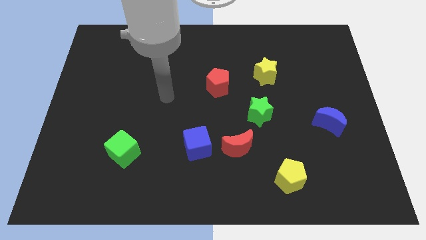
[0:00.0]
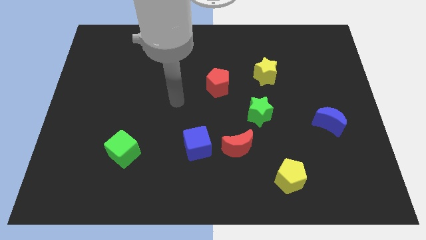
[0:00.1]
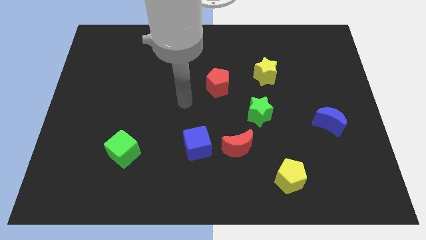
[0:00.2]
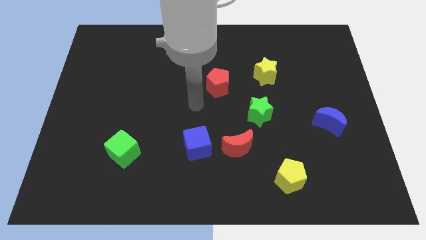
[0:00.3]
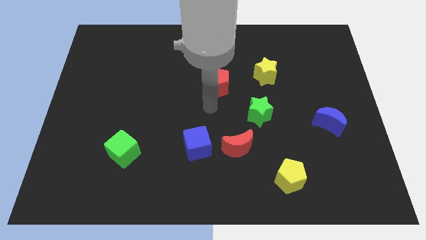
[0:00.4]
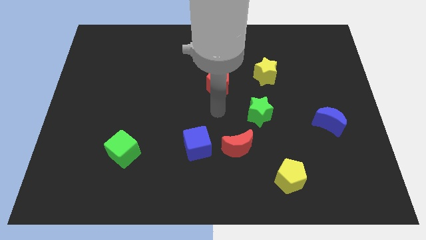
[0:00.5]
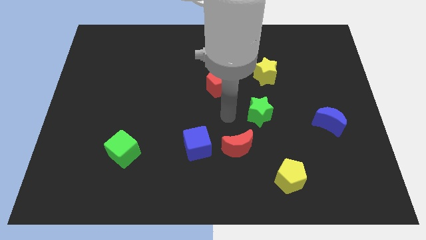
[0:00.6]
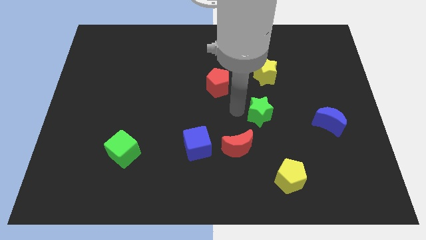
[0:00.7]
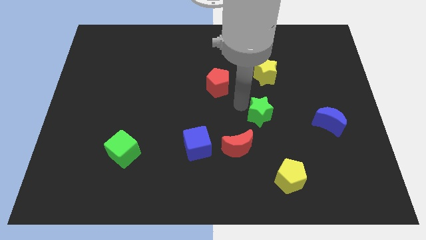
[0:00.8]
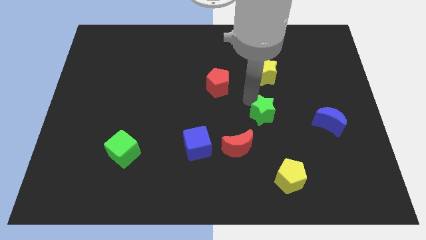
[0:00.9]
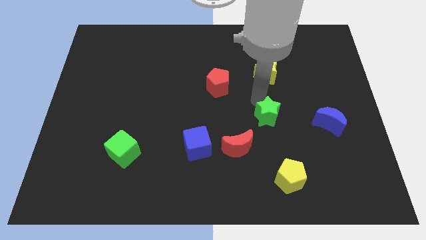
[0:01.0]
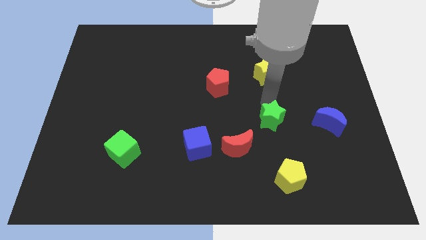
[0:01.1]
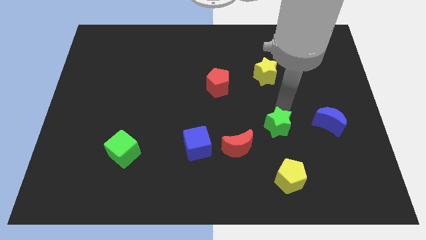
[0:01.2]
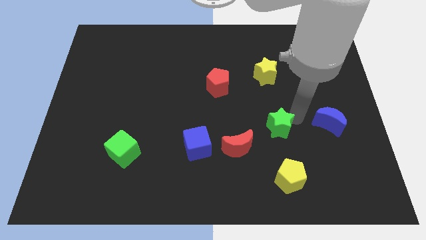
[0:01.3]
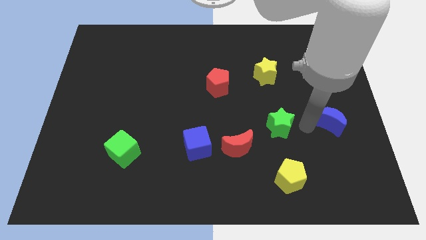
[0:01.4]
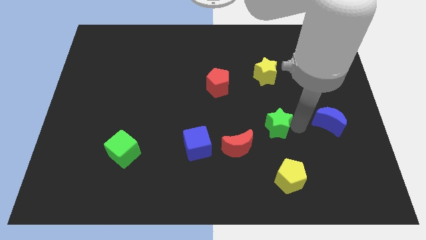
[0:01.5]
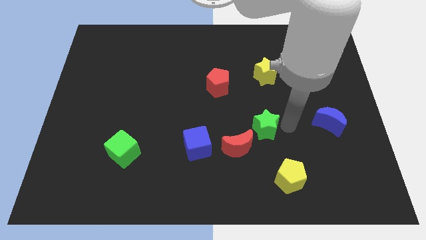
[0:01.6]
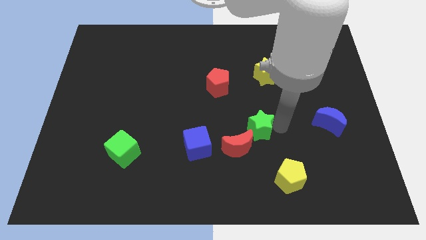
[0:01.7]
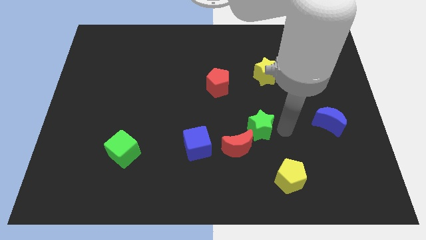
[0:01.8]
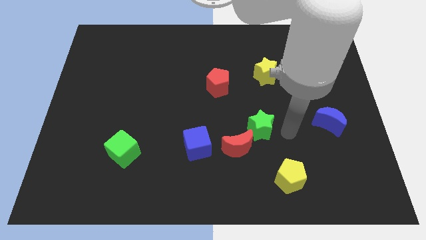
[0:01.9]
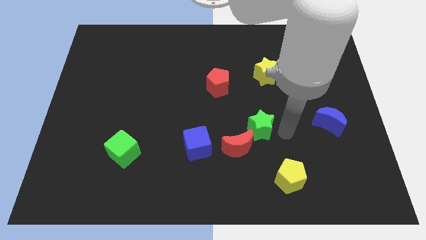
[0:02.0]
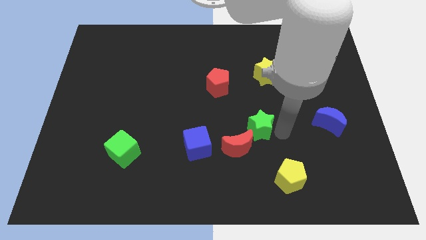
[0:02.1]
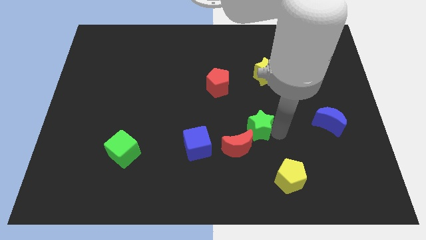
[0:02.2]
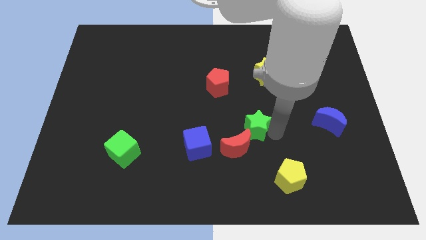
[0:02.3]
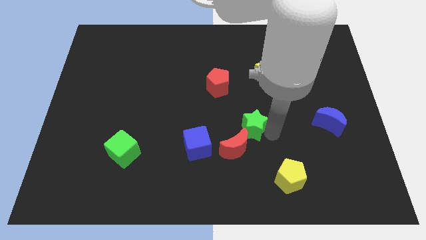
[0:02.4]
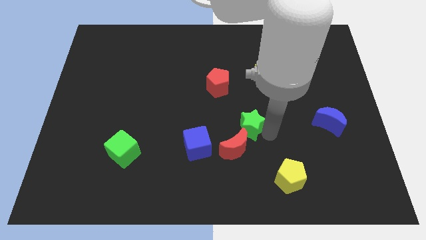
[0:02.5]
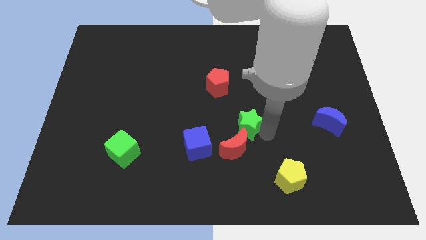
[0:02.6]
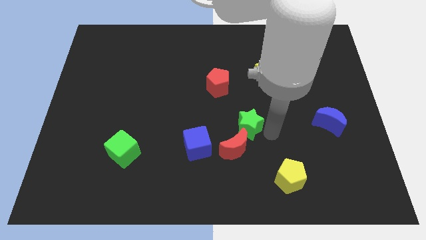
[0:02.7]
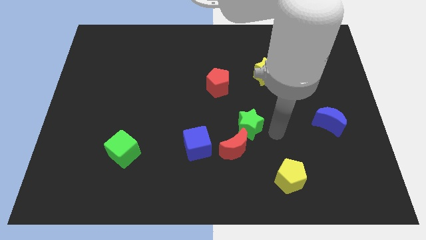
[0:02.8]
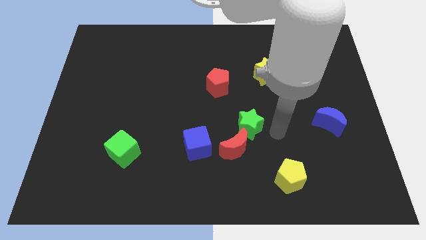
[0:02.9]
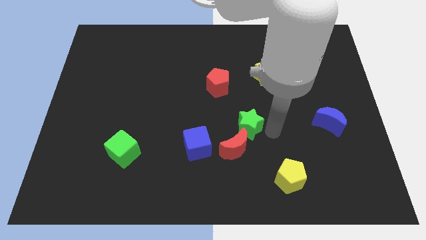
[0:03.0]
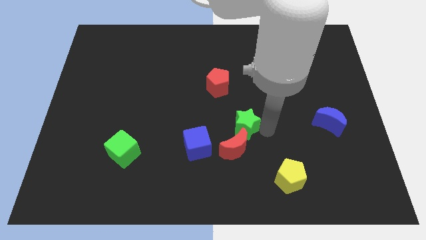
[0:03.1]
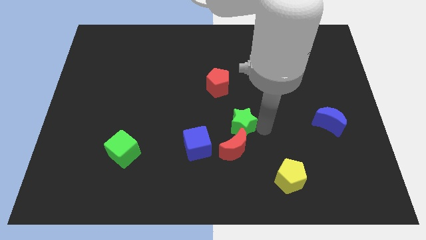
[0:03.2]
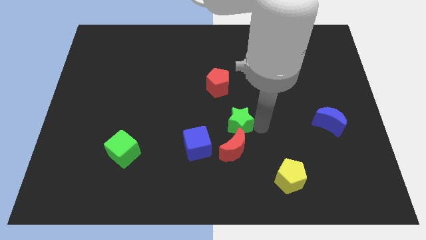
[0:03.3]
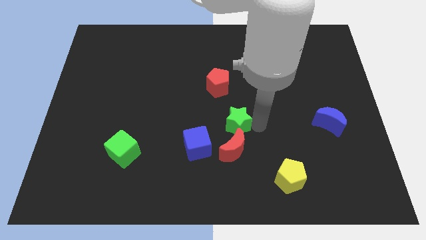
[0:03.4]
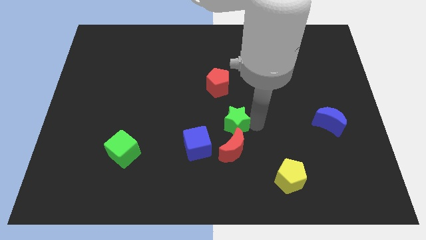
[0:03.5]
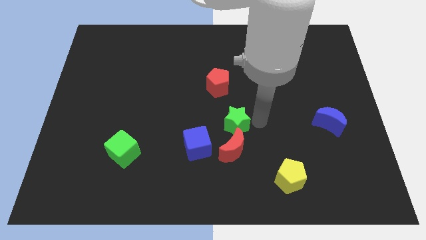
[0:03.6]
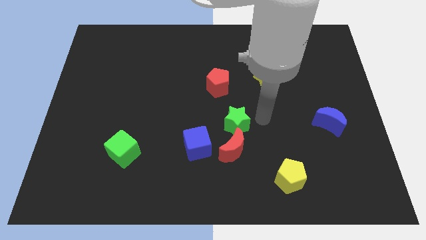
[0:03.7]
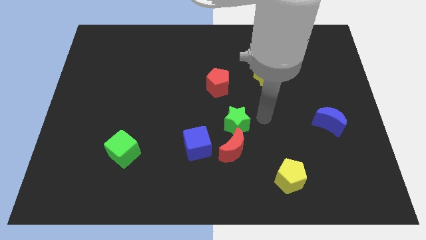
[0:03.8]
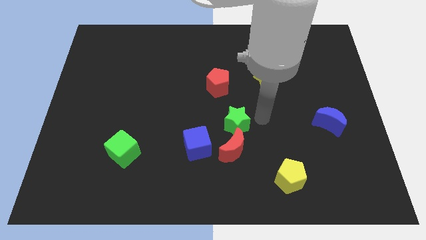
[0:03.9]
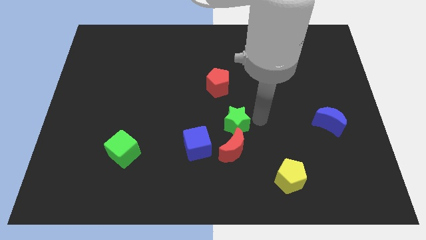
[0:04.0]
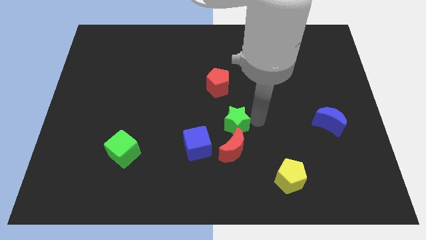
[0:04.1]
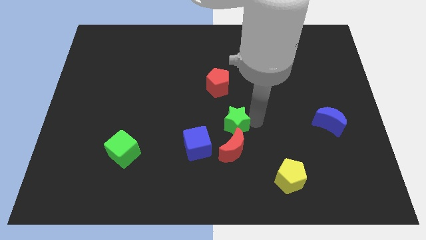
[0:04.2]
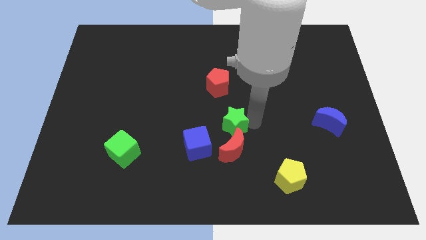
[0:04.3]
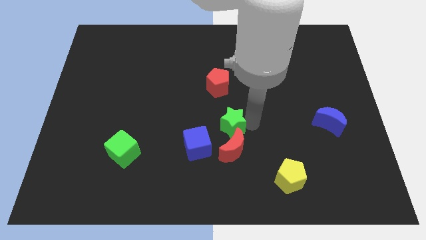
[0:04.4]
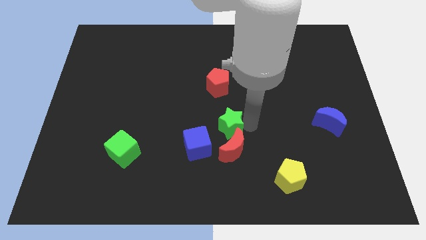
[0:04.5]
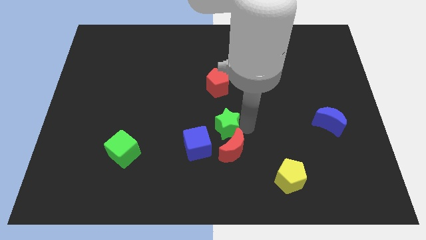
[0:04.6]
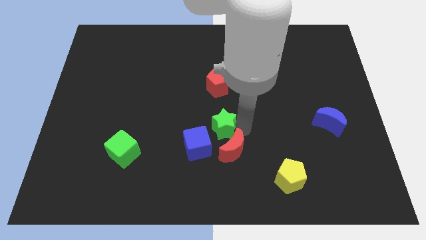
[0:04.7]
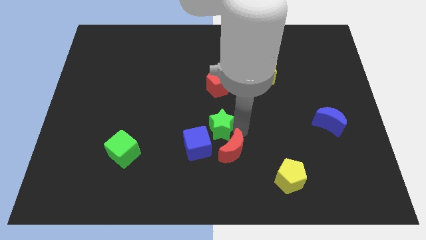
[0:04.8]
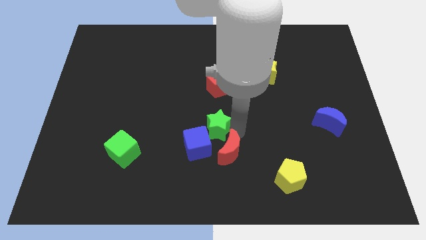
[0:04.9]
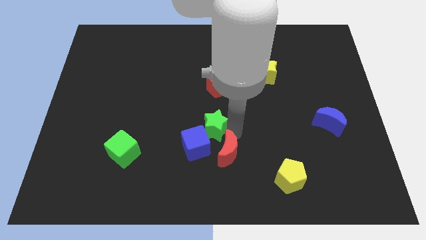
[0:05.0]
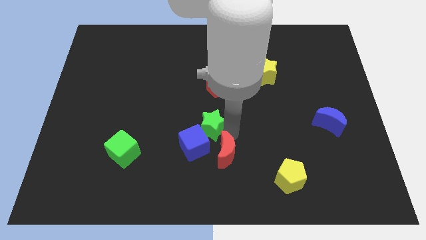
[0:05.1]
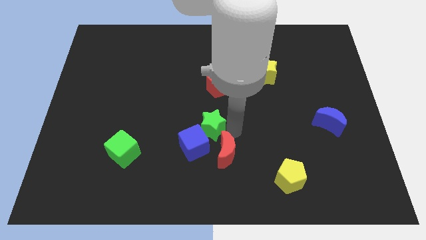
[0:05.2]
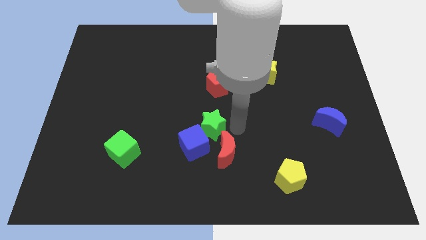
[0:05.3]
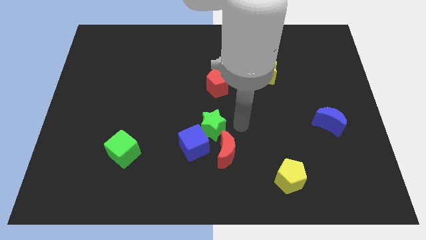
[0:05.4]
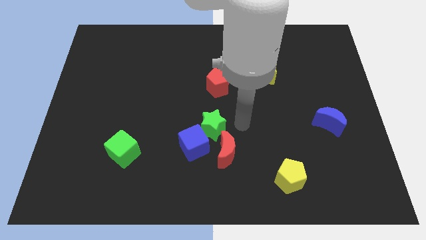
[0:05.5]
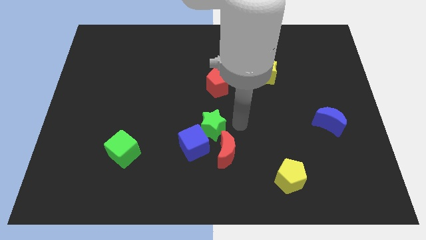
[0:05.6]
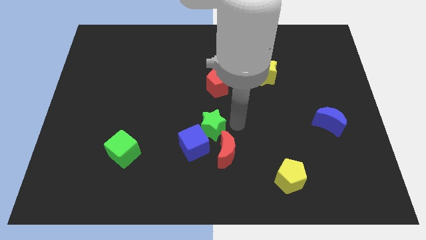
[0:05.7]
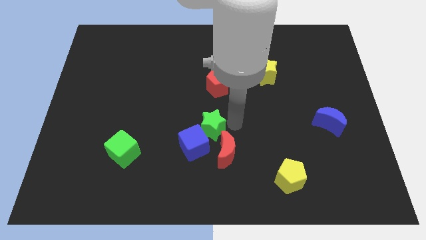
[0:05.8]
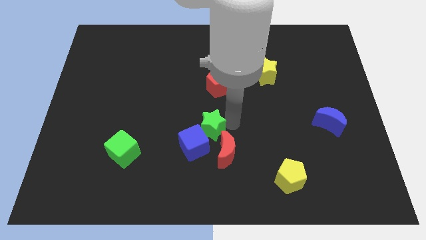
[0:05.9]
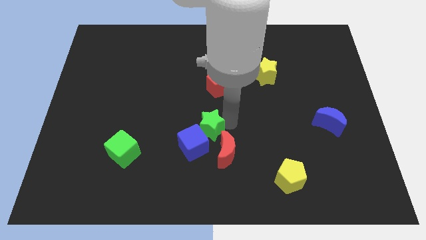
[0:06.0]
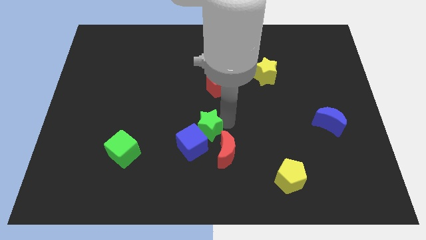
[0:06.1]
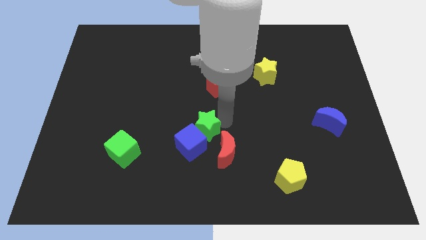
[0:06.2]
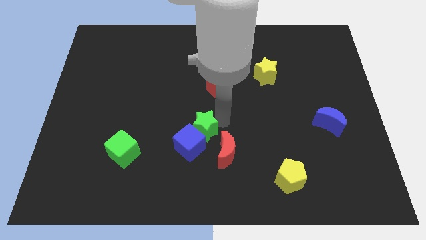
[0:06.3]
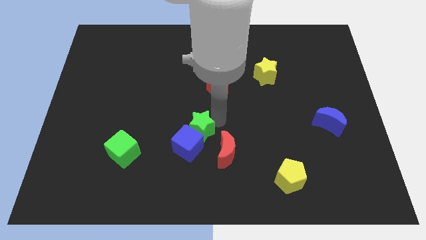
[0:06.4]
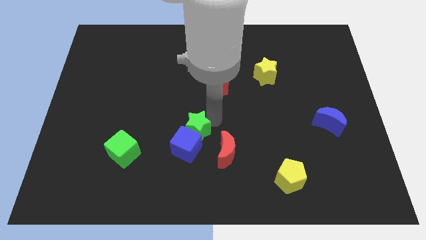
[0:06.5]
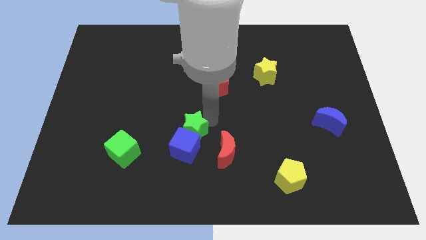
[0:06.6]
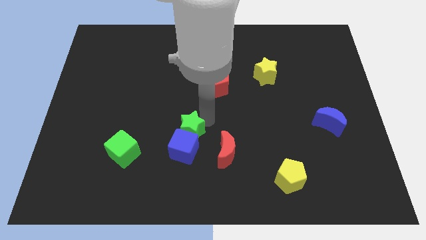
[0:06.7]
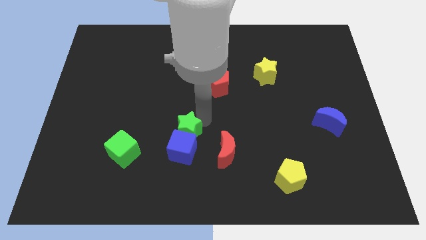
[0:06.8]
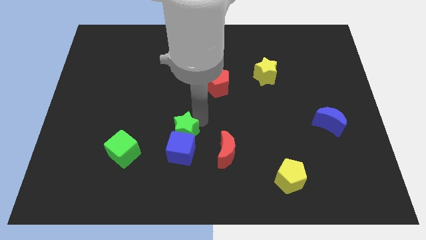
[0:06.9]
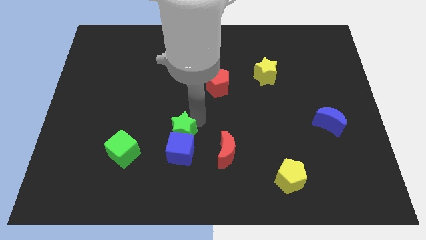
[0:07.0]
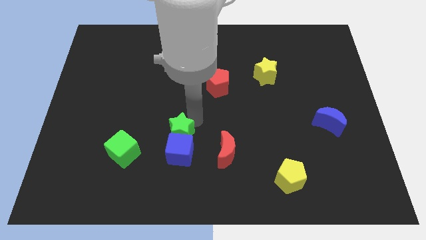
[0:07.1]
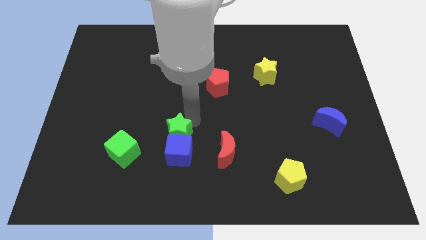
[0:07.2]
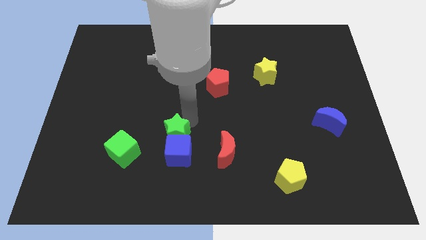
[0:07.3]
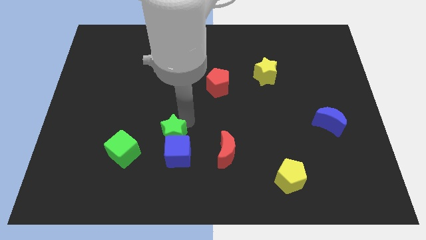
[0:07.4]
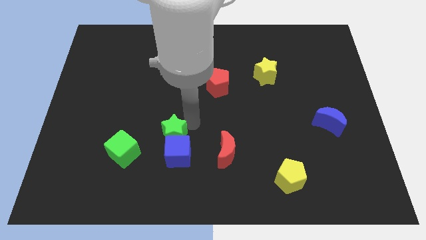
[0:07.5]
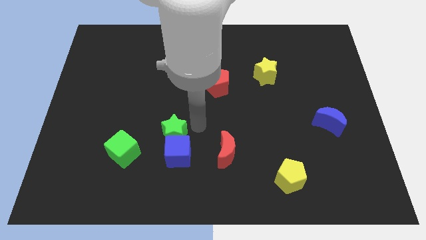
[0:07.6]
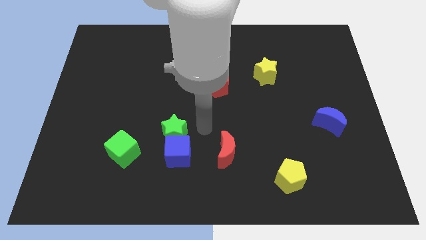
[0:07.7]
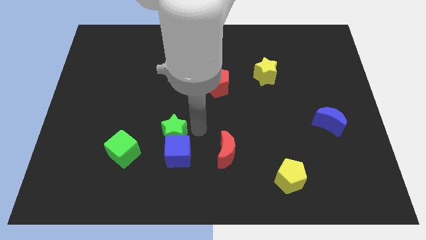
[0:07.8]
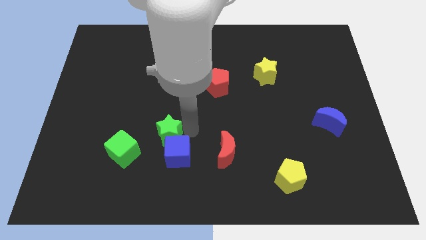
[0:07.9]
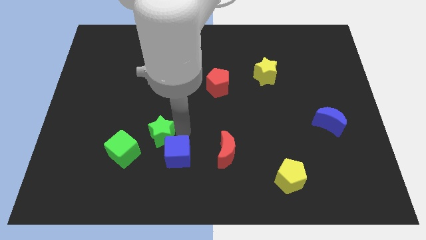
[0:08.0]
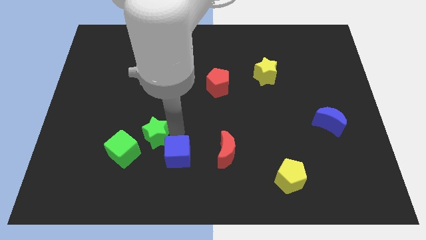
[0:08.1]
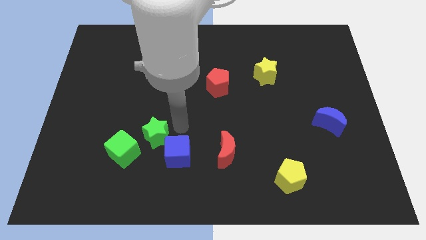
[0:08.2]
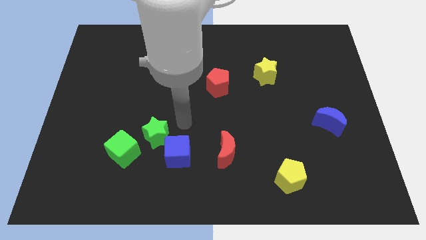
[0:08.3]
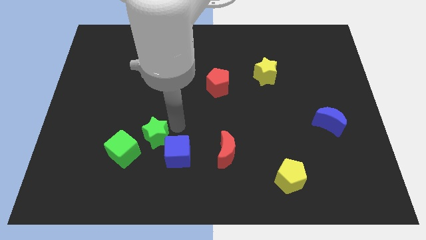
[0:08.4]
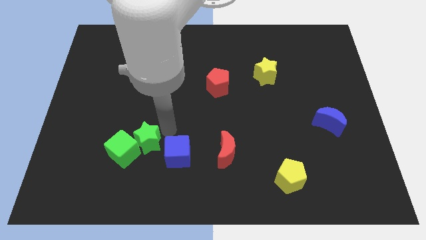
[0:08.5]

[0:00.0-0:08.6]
push the green star towards the green cube
